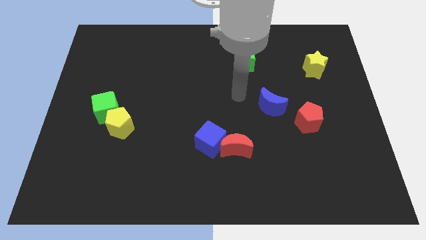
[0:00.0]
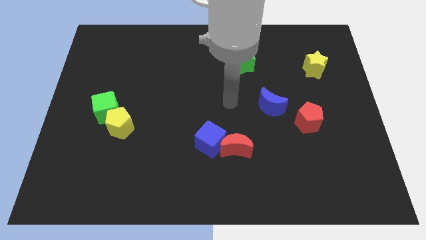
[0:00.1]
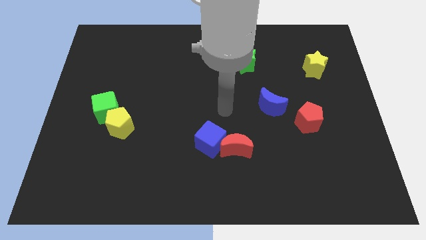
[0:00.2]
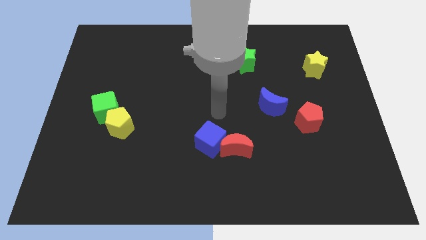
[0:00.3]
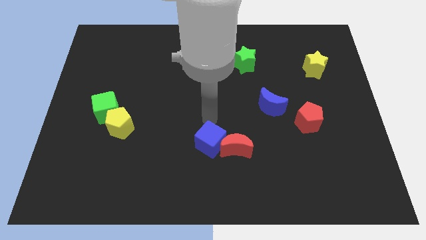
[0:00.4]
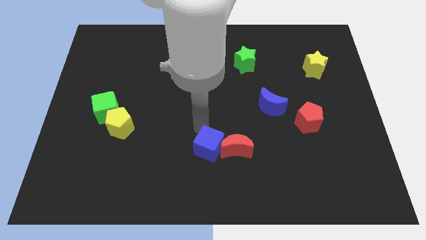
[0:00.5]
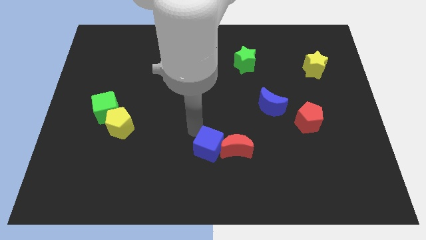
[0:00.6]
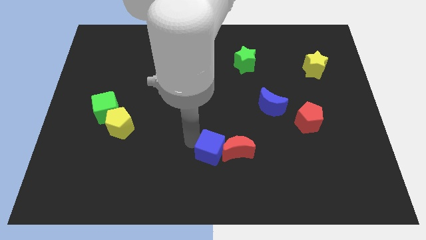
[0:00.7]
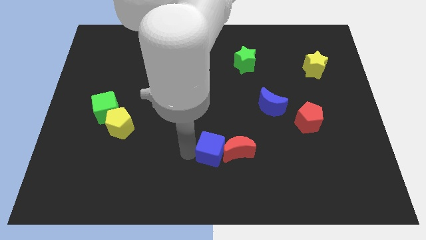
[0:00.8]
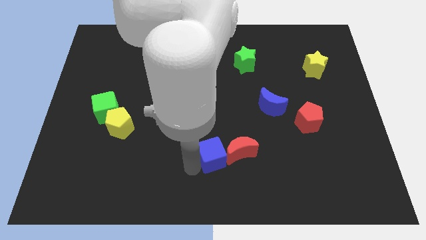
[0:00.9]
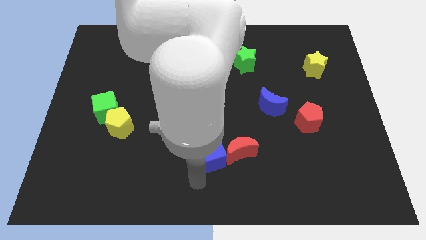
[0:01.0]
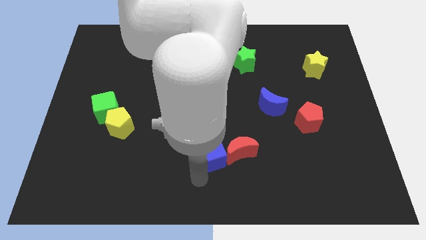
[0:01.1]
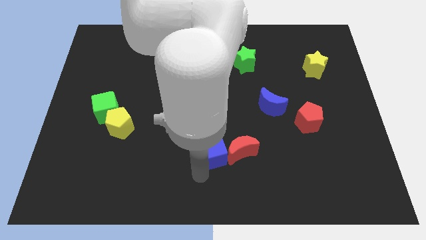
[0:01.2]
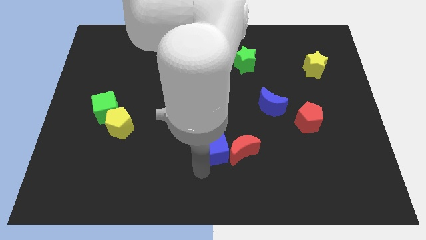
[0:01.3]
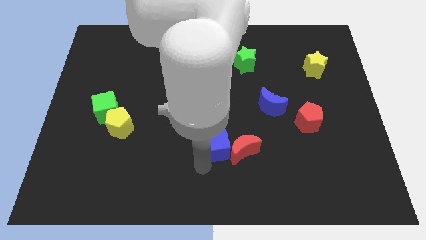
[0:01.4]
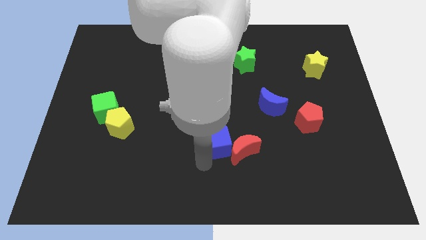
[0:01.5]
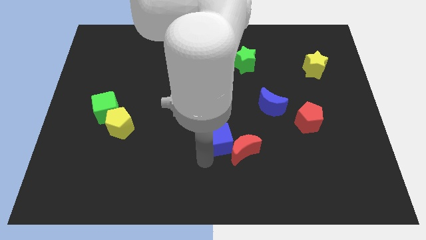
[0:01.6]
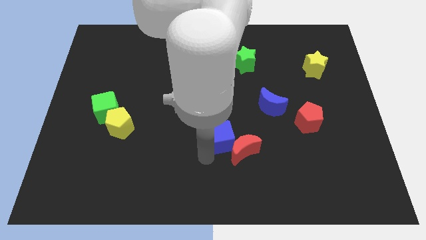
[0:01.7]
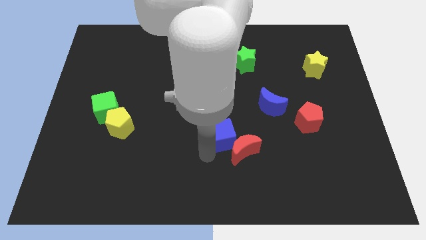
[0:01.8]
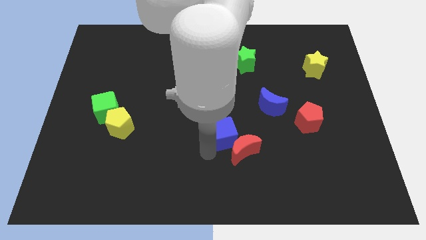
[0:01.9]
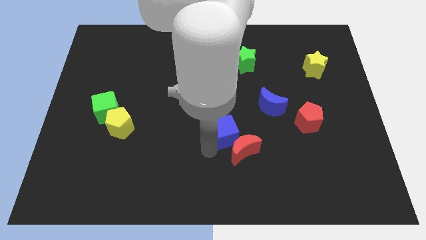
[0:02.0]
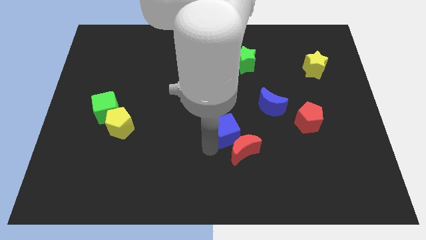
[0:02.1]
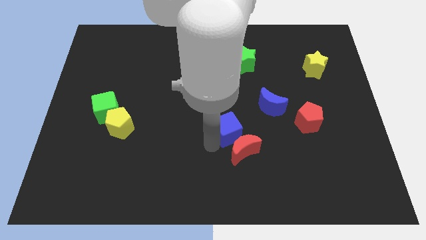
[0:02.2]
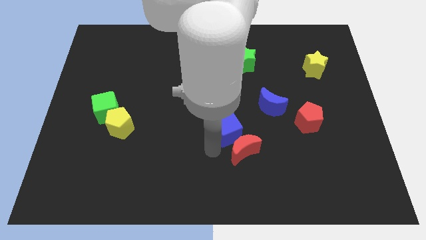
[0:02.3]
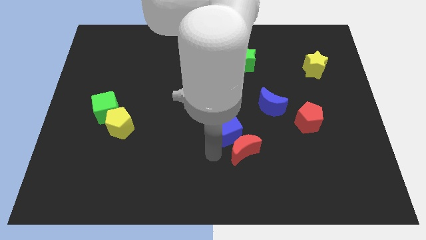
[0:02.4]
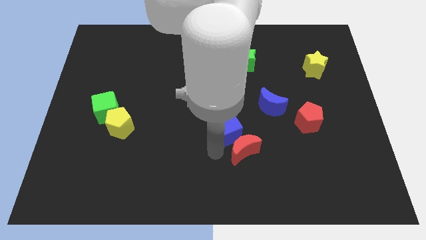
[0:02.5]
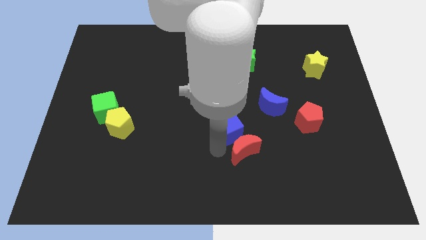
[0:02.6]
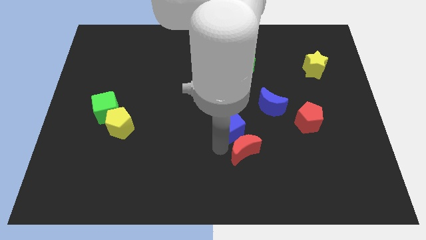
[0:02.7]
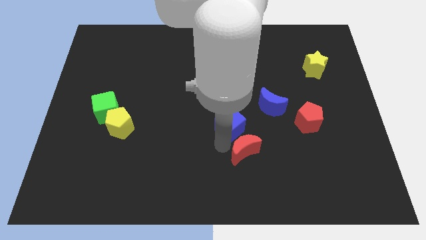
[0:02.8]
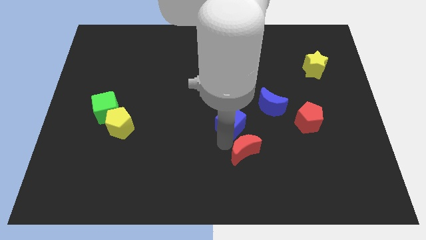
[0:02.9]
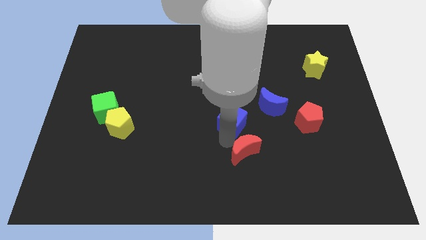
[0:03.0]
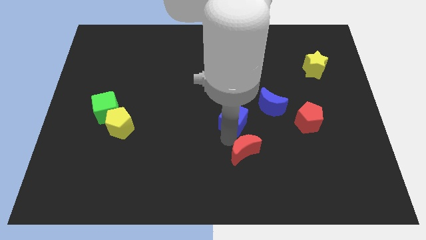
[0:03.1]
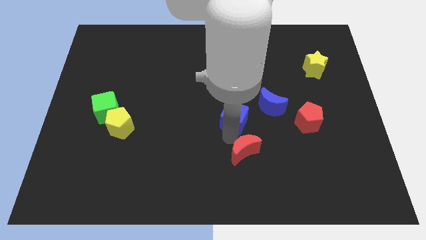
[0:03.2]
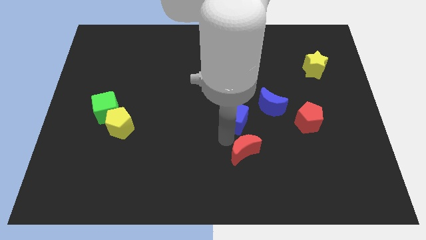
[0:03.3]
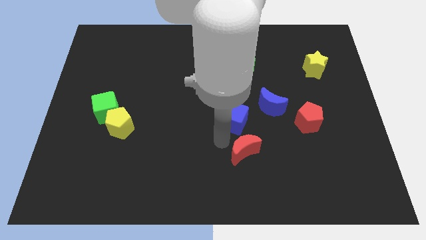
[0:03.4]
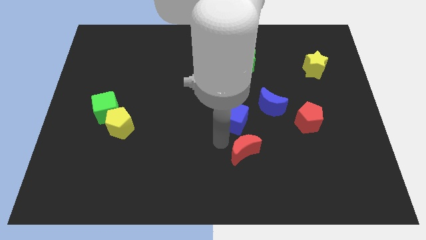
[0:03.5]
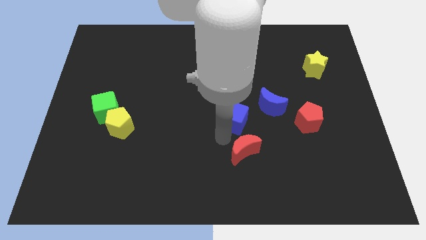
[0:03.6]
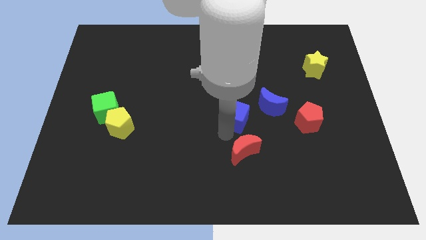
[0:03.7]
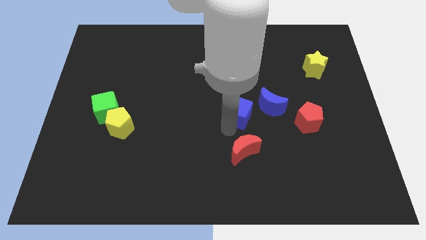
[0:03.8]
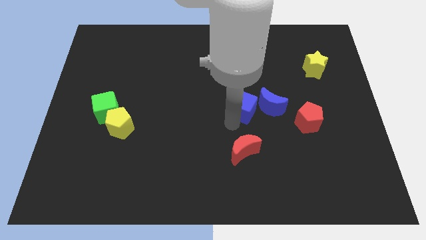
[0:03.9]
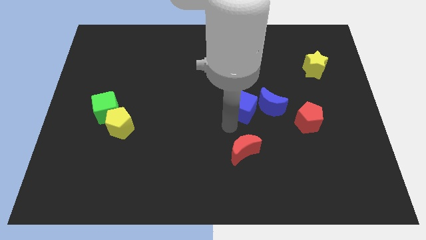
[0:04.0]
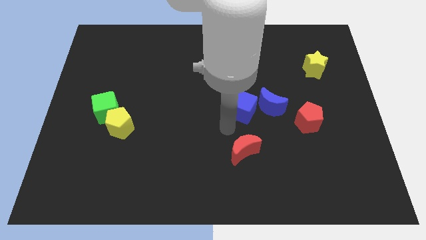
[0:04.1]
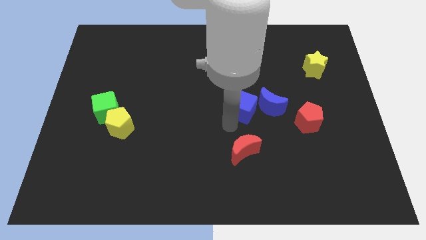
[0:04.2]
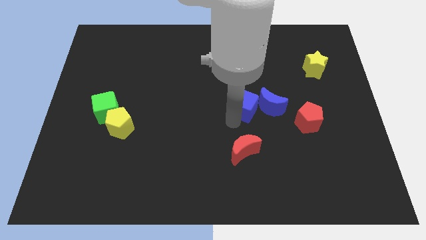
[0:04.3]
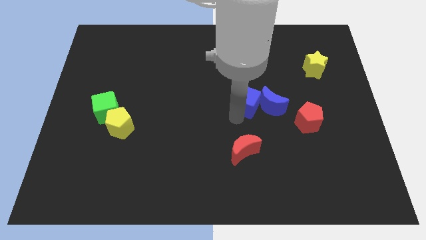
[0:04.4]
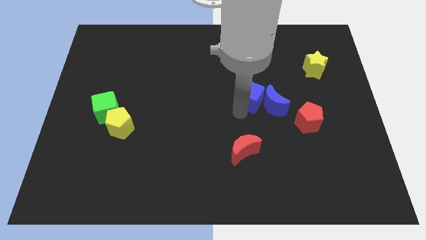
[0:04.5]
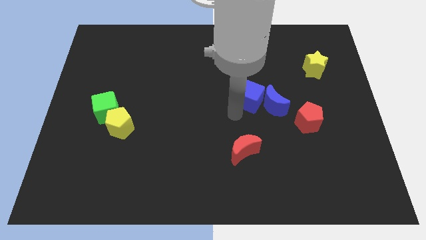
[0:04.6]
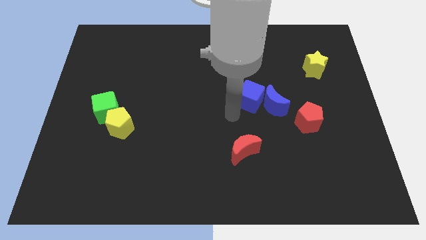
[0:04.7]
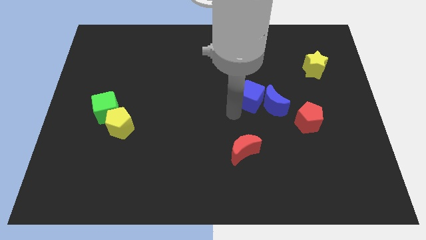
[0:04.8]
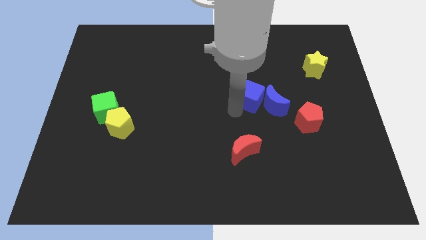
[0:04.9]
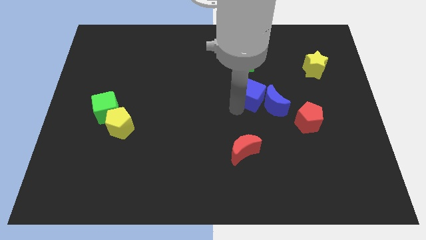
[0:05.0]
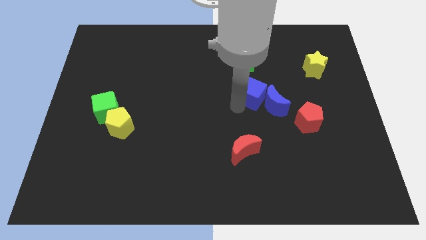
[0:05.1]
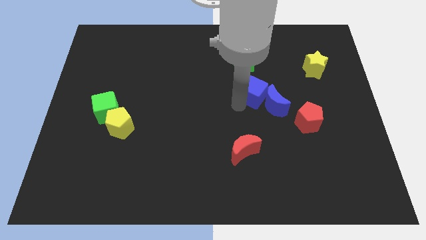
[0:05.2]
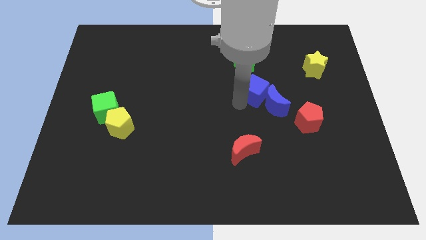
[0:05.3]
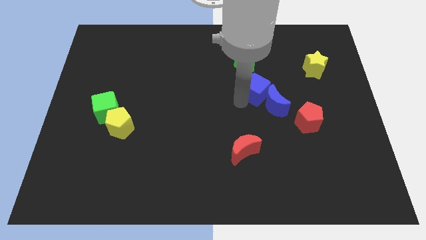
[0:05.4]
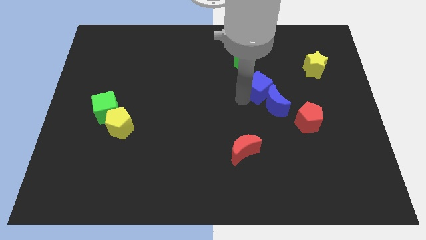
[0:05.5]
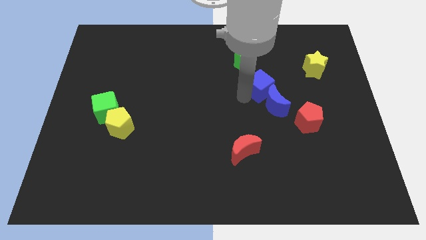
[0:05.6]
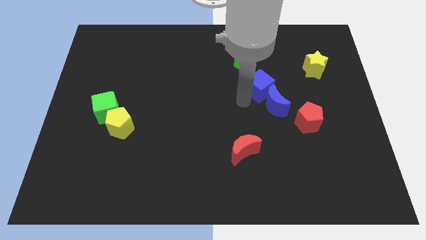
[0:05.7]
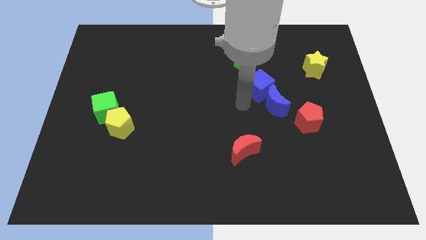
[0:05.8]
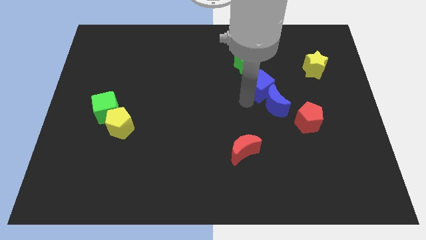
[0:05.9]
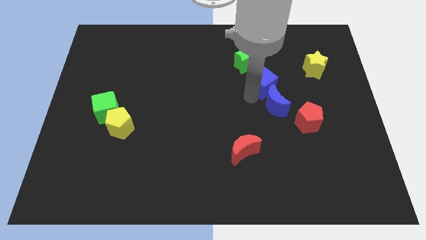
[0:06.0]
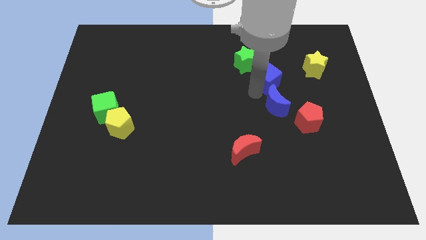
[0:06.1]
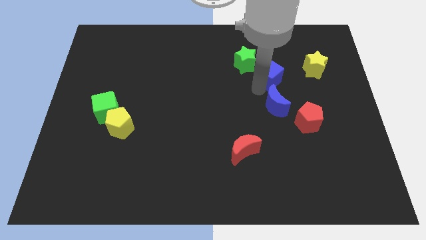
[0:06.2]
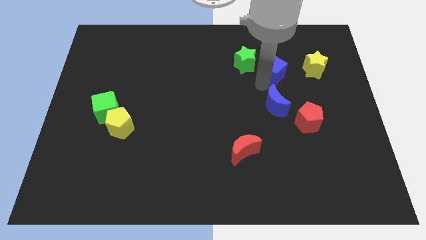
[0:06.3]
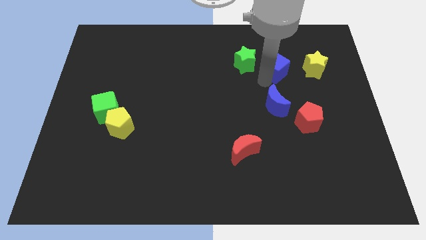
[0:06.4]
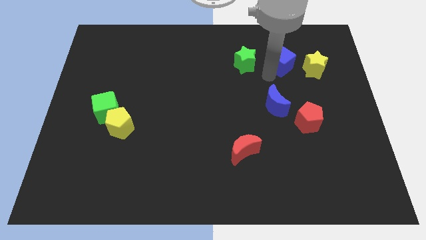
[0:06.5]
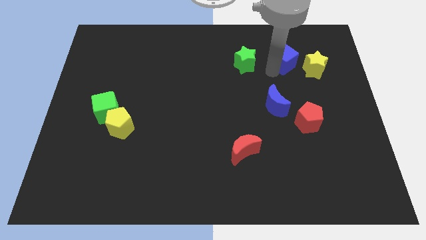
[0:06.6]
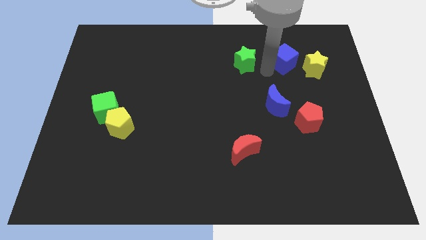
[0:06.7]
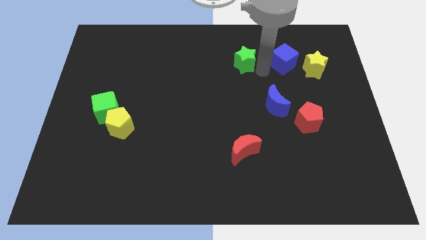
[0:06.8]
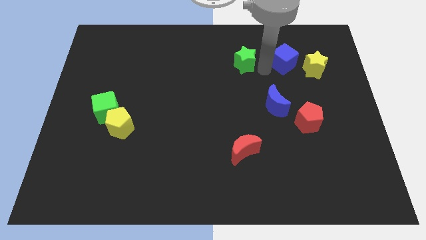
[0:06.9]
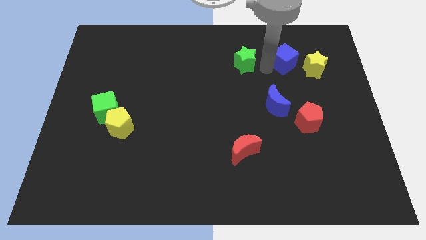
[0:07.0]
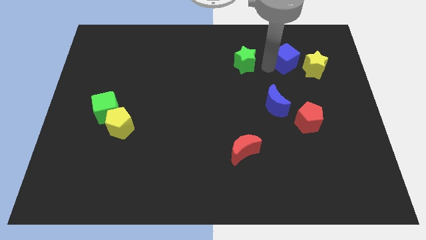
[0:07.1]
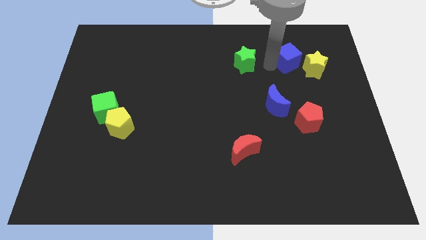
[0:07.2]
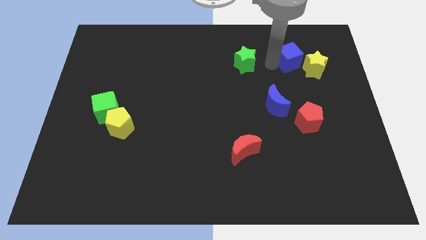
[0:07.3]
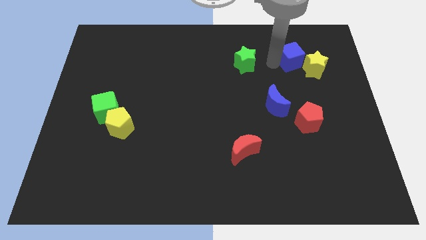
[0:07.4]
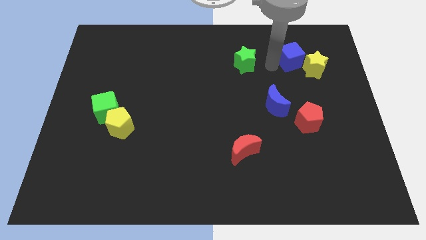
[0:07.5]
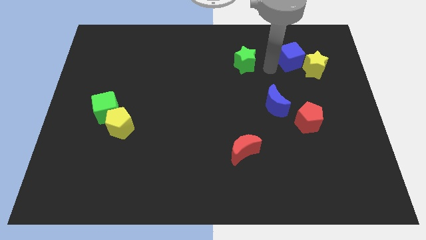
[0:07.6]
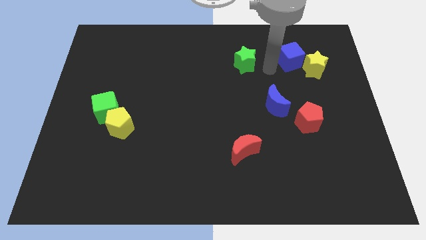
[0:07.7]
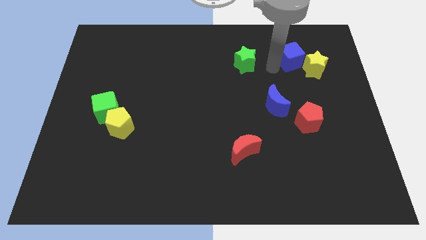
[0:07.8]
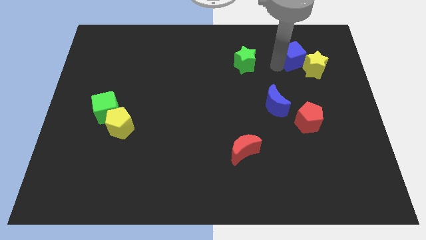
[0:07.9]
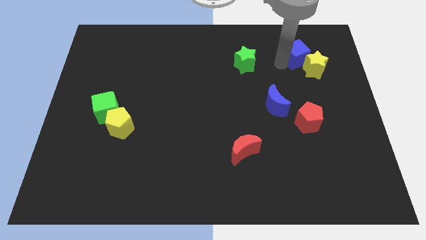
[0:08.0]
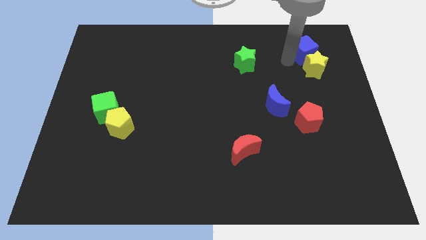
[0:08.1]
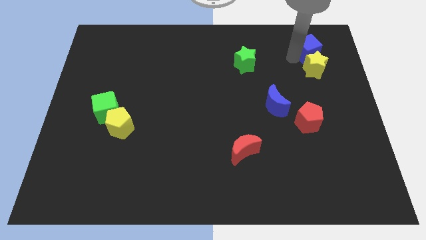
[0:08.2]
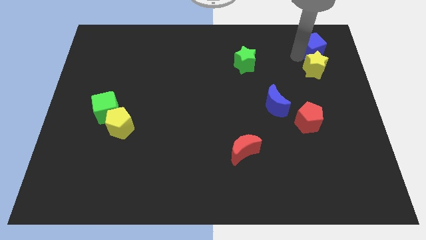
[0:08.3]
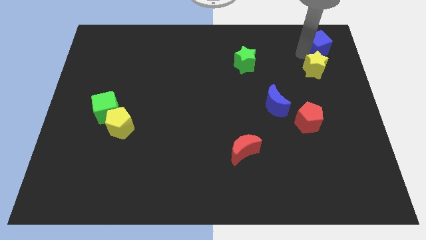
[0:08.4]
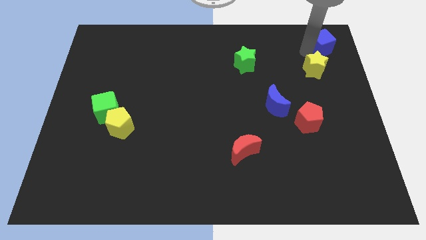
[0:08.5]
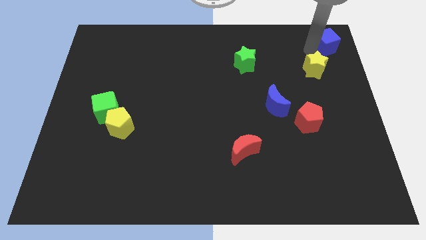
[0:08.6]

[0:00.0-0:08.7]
move the blue cube to the upper right corner
